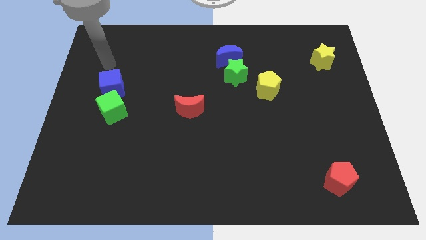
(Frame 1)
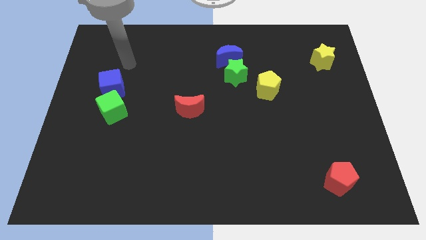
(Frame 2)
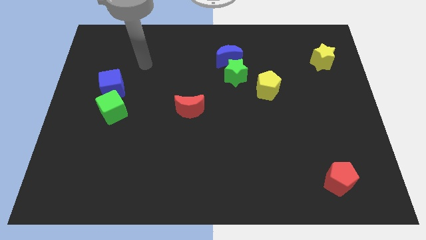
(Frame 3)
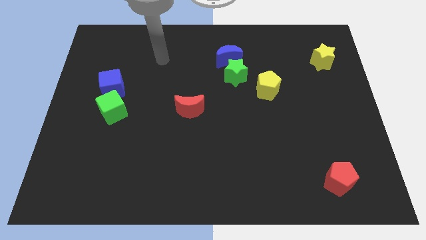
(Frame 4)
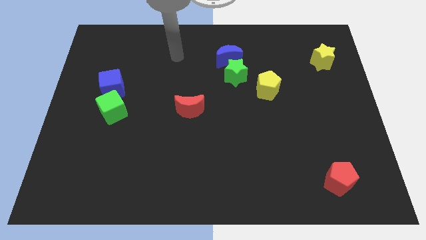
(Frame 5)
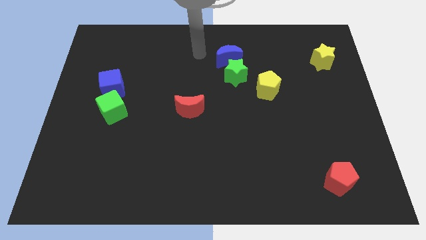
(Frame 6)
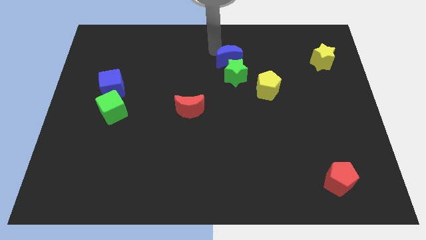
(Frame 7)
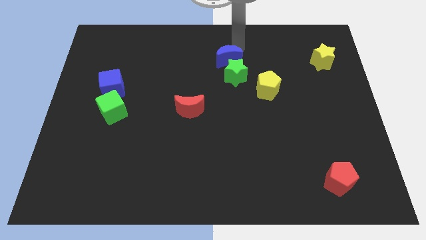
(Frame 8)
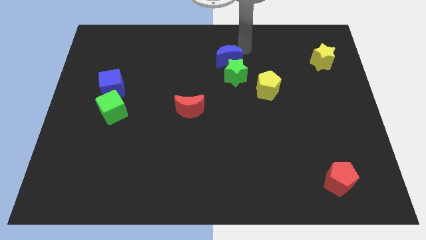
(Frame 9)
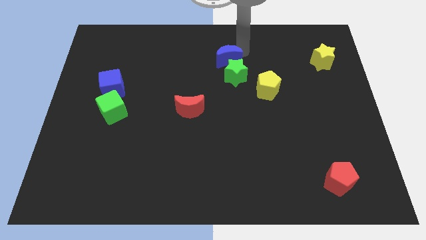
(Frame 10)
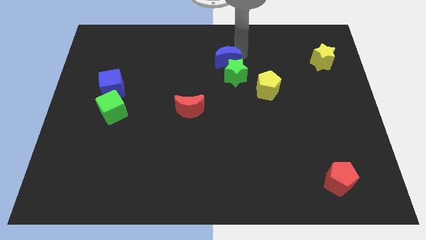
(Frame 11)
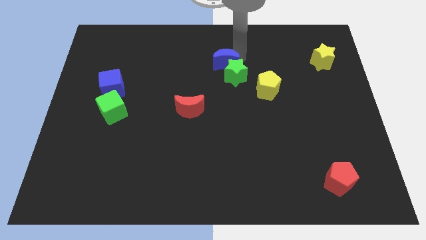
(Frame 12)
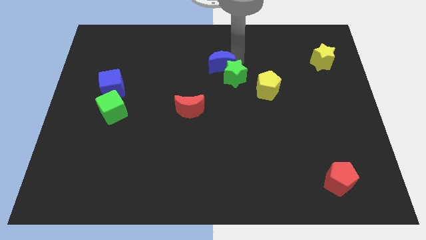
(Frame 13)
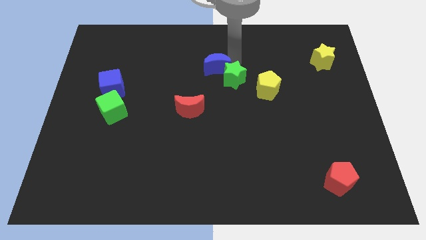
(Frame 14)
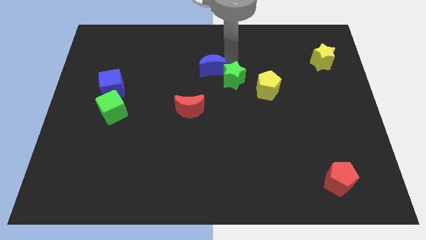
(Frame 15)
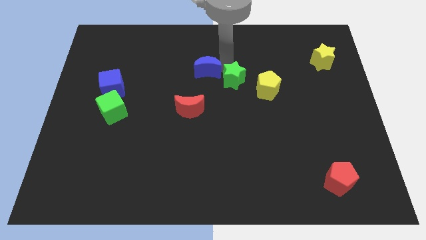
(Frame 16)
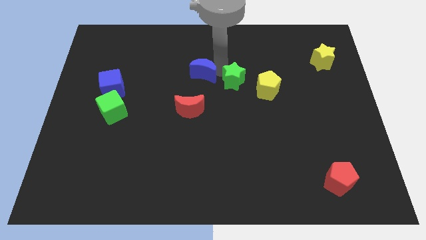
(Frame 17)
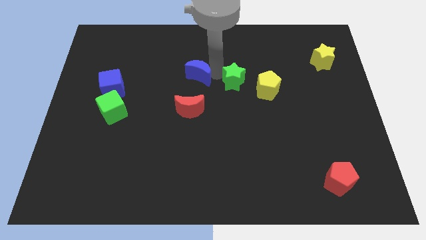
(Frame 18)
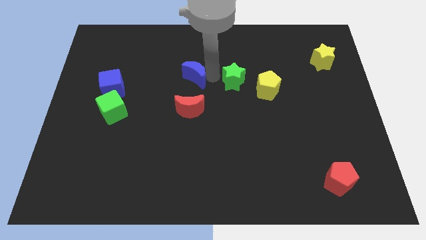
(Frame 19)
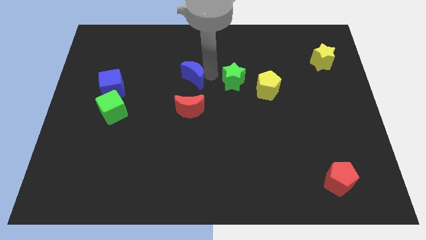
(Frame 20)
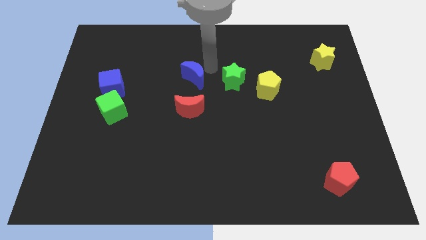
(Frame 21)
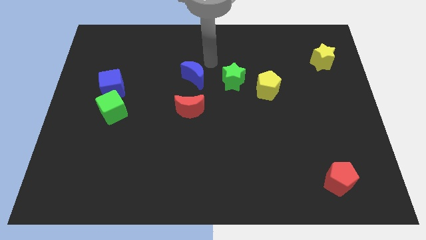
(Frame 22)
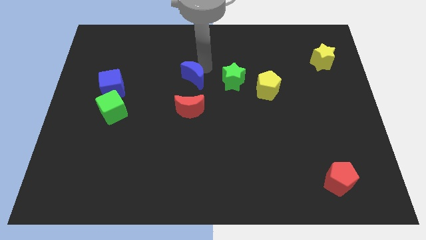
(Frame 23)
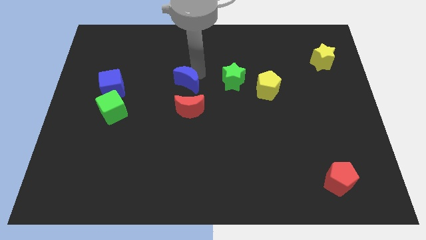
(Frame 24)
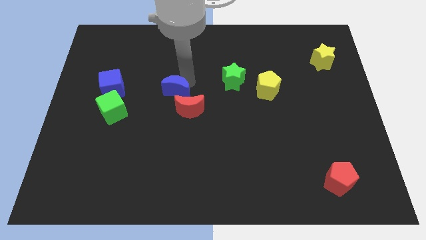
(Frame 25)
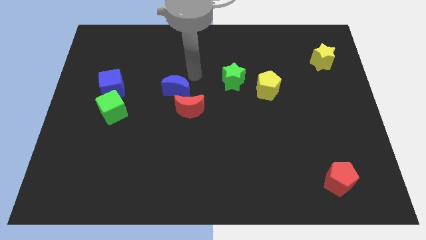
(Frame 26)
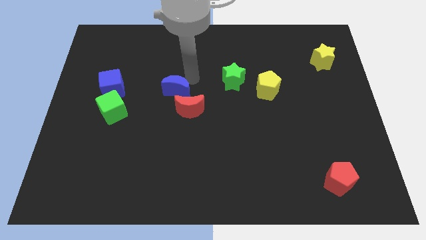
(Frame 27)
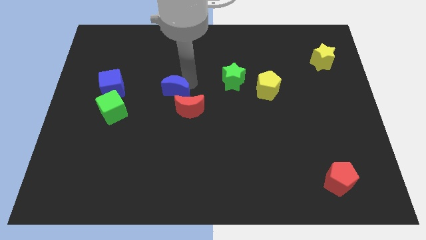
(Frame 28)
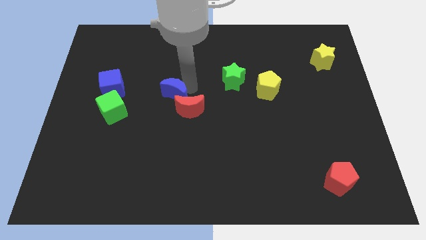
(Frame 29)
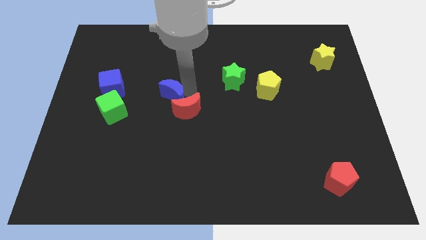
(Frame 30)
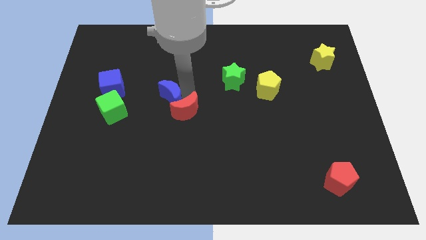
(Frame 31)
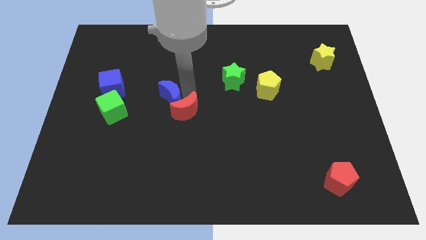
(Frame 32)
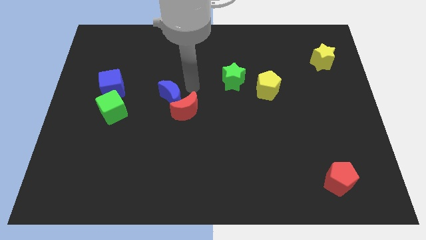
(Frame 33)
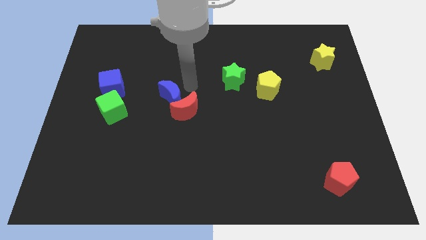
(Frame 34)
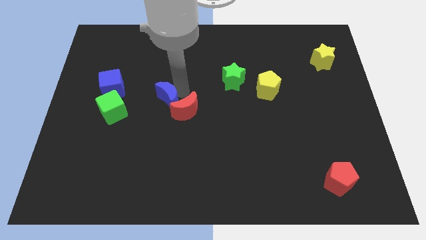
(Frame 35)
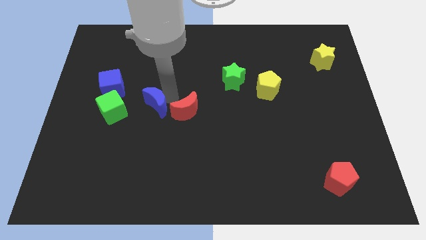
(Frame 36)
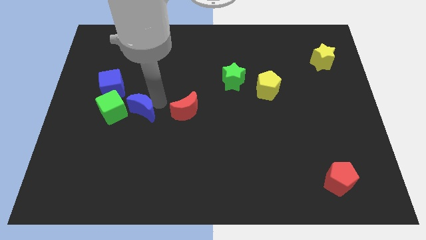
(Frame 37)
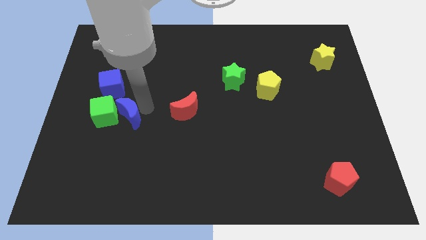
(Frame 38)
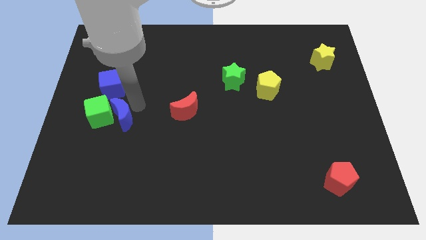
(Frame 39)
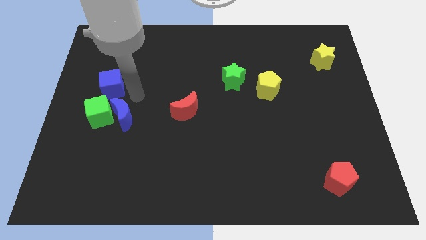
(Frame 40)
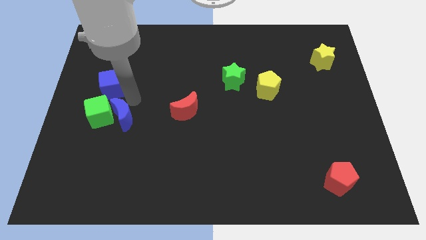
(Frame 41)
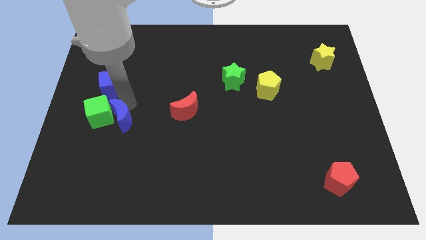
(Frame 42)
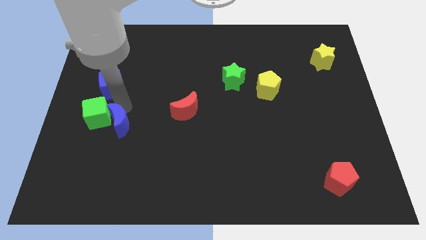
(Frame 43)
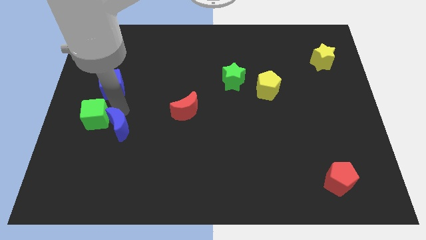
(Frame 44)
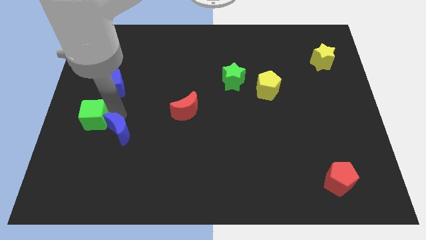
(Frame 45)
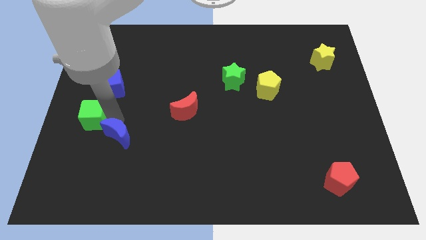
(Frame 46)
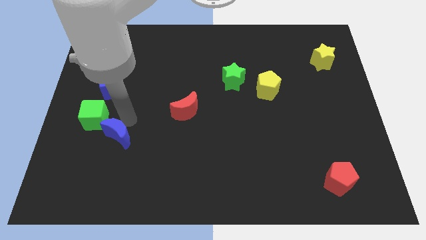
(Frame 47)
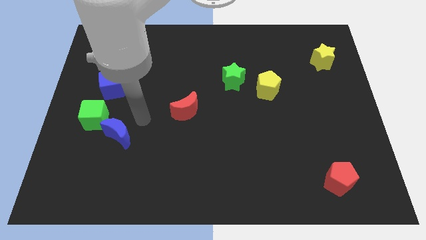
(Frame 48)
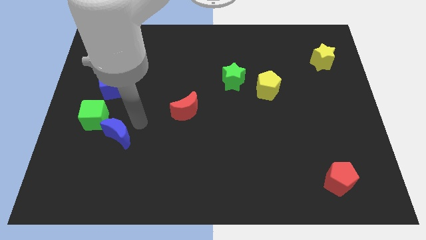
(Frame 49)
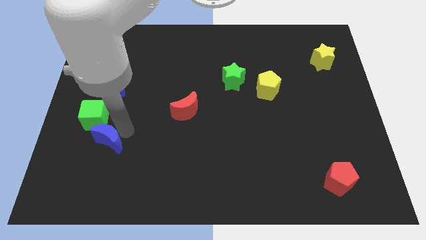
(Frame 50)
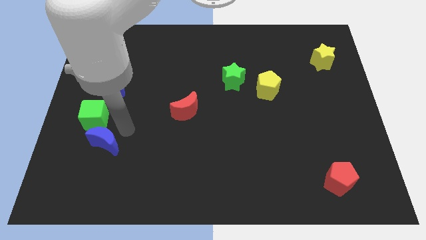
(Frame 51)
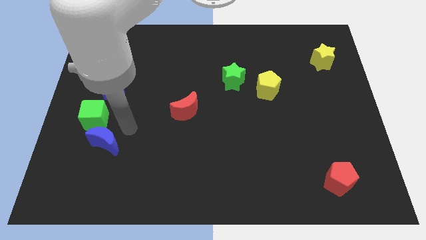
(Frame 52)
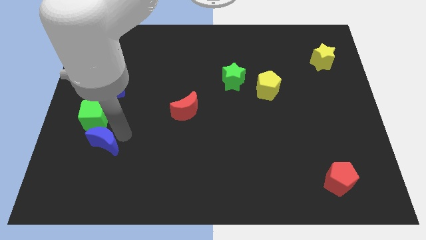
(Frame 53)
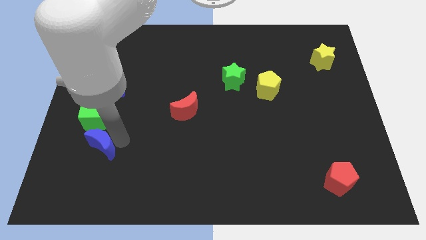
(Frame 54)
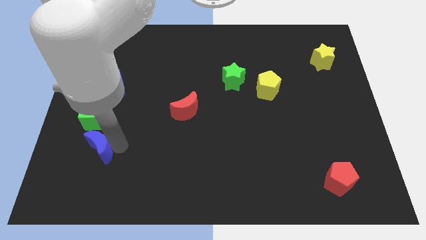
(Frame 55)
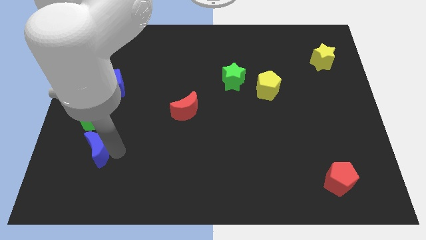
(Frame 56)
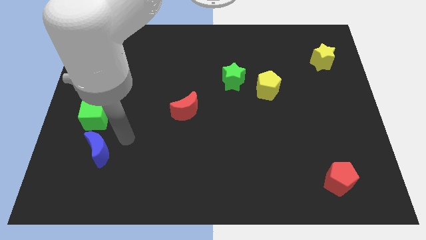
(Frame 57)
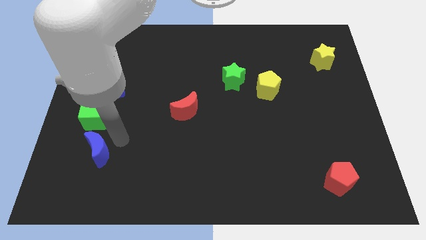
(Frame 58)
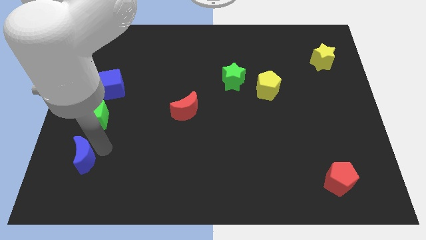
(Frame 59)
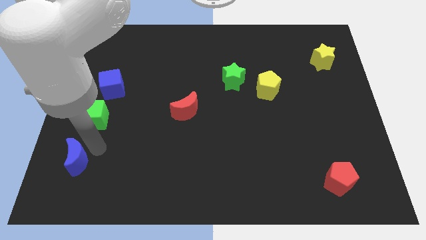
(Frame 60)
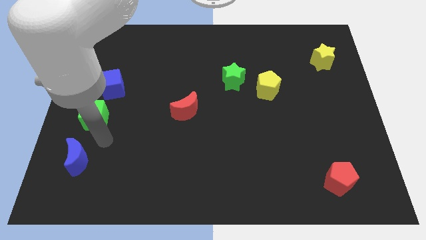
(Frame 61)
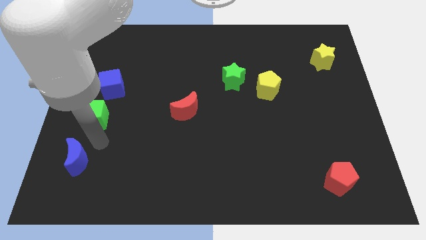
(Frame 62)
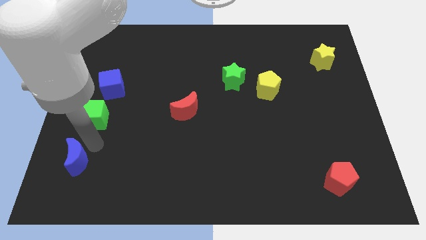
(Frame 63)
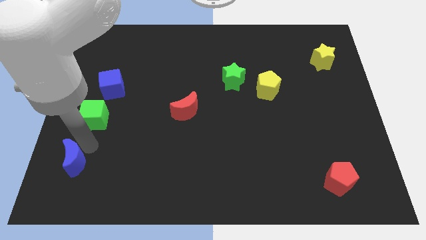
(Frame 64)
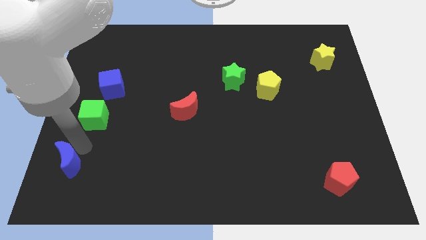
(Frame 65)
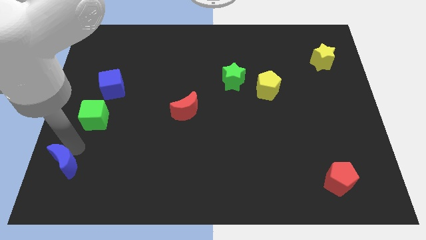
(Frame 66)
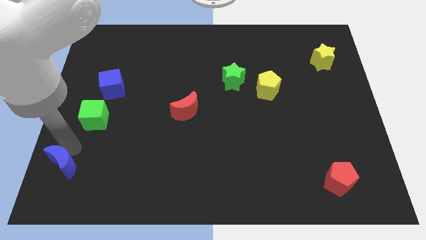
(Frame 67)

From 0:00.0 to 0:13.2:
move the blue moon to the lower left corner
